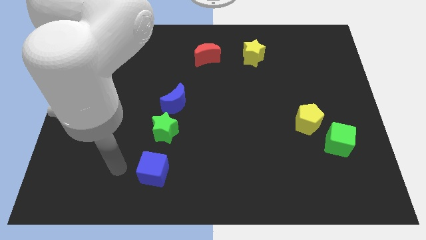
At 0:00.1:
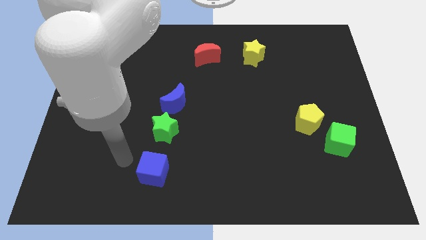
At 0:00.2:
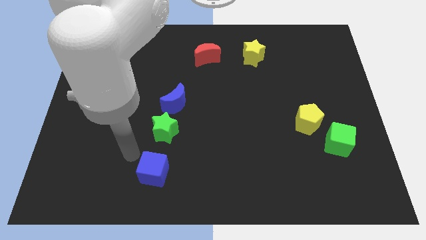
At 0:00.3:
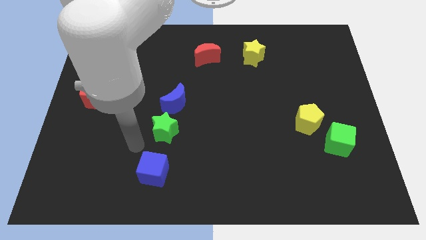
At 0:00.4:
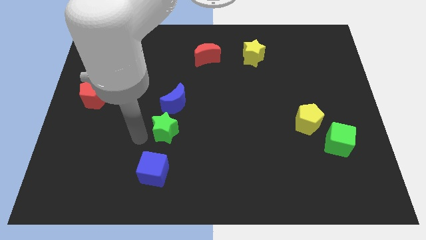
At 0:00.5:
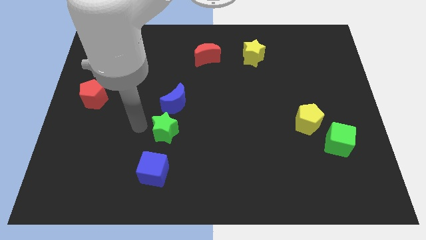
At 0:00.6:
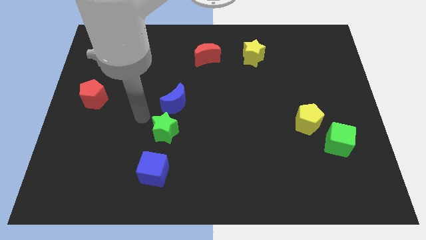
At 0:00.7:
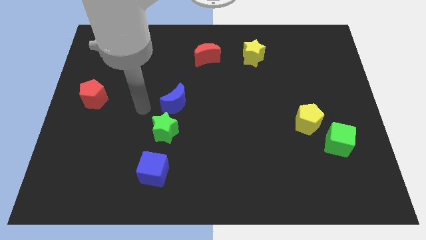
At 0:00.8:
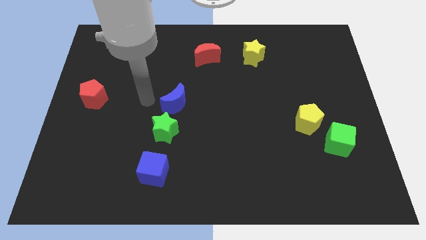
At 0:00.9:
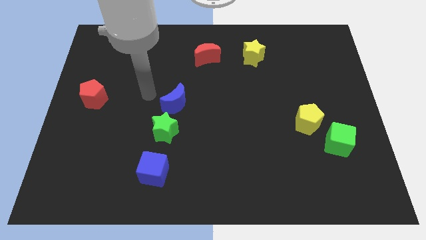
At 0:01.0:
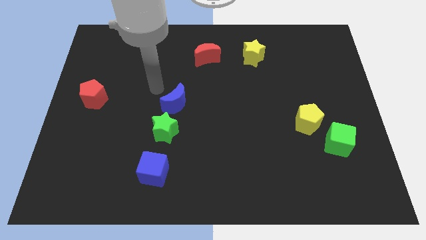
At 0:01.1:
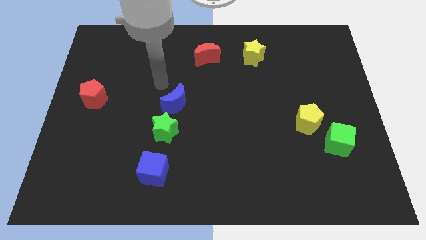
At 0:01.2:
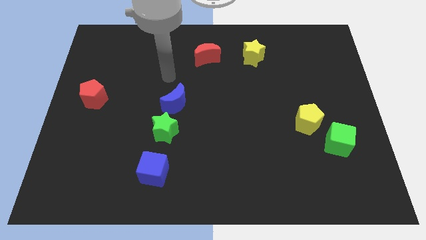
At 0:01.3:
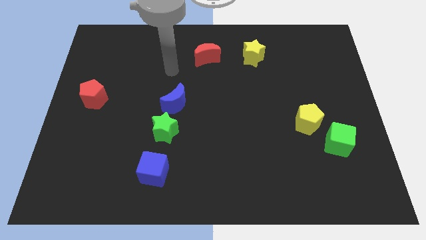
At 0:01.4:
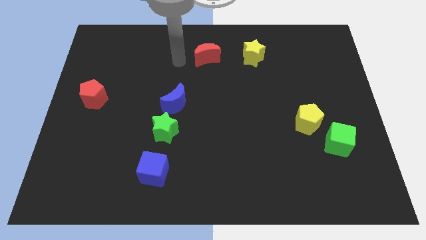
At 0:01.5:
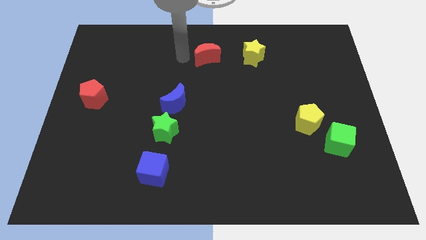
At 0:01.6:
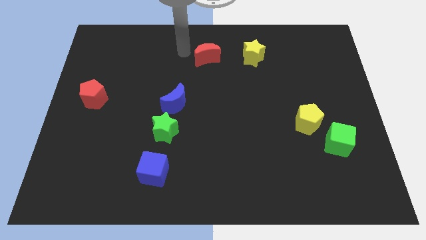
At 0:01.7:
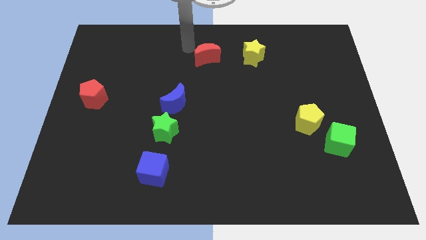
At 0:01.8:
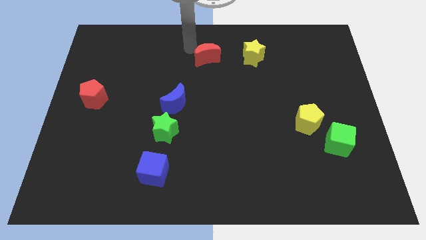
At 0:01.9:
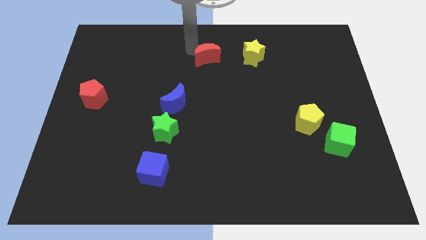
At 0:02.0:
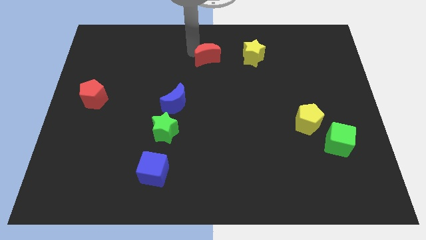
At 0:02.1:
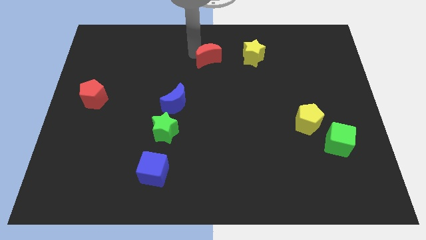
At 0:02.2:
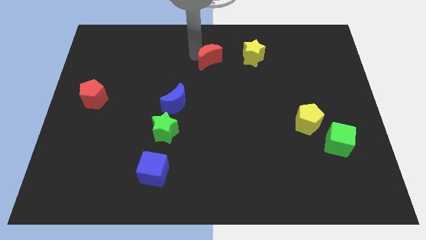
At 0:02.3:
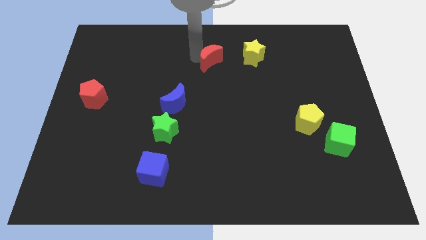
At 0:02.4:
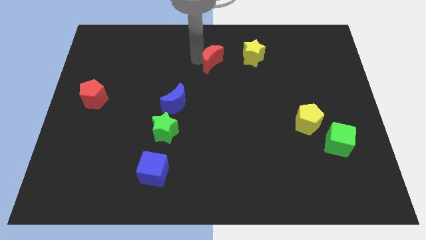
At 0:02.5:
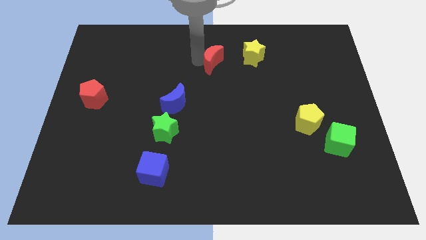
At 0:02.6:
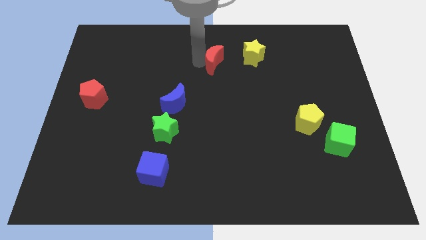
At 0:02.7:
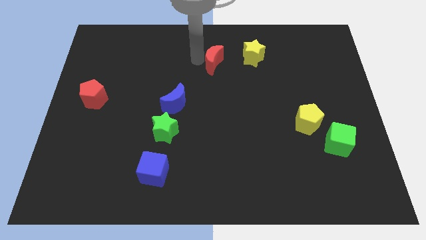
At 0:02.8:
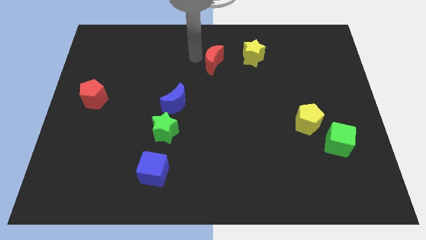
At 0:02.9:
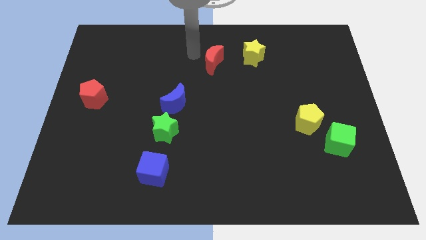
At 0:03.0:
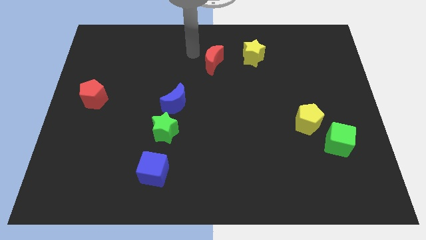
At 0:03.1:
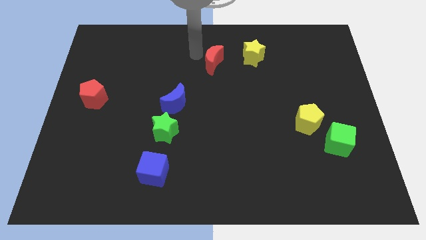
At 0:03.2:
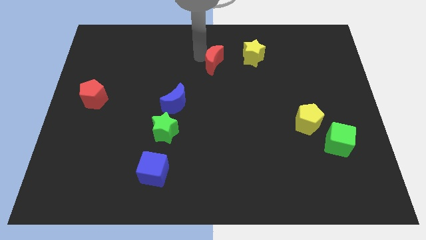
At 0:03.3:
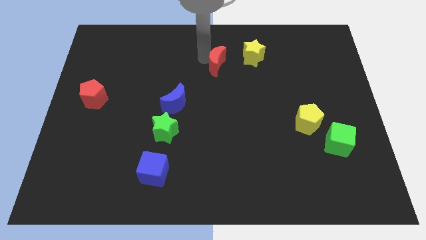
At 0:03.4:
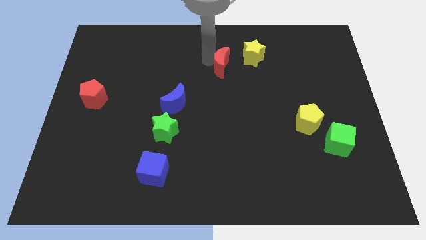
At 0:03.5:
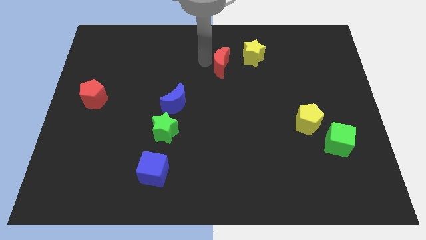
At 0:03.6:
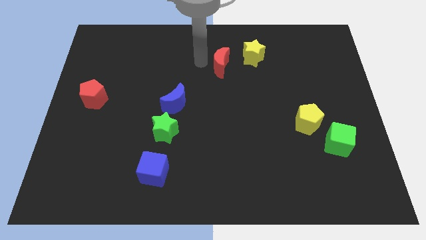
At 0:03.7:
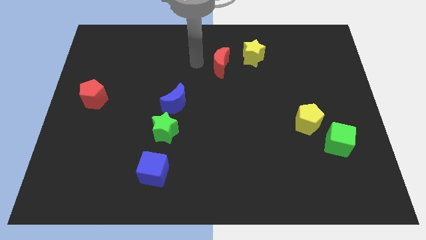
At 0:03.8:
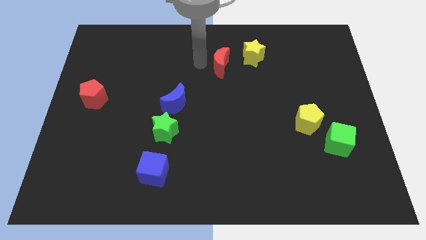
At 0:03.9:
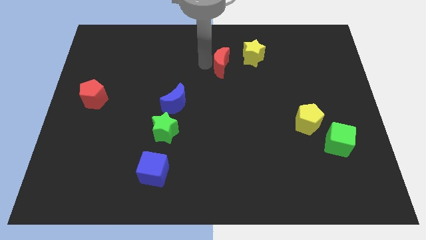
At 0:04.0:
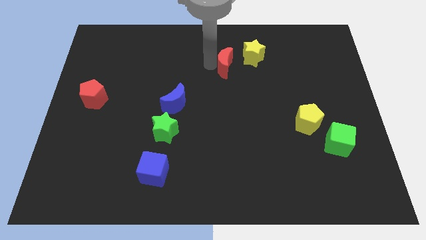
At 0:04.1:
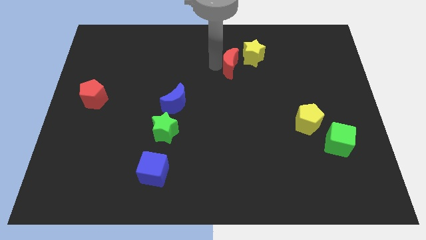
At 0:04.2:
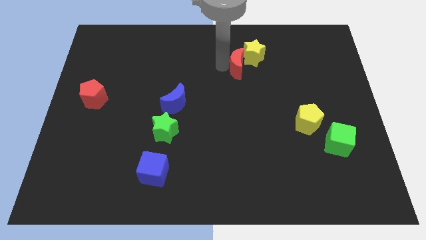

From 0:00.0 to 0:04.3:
push the red moon a little right

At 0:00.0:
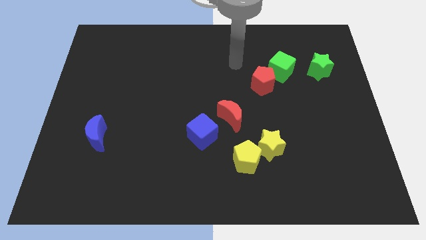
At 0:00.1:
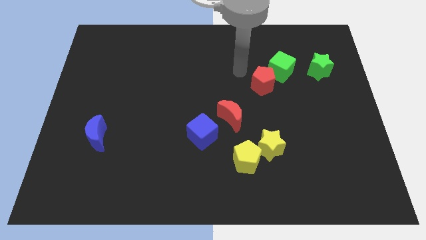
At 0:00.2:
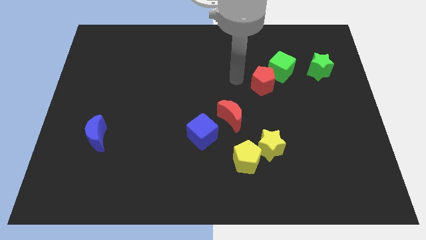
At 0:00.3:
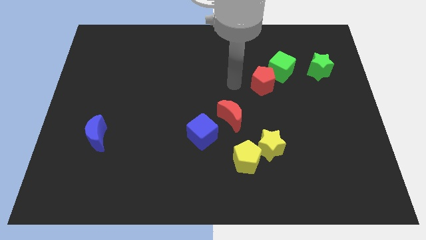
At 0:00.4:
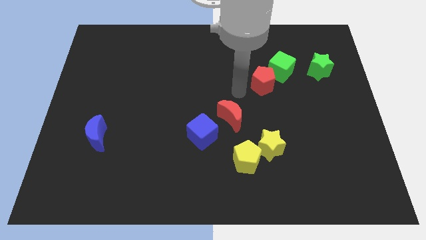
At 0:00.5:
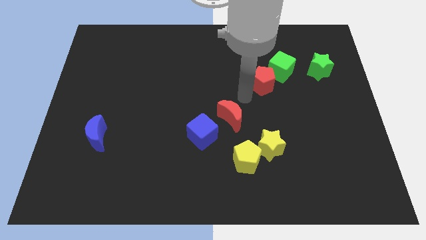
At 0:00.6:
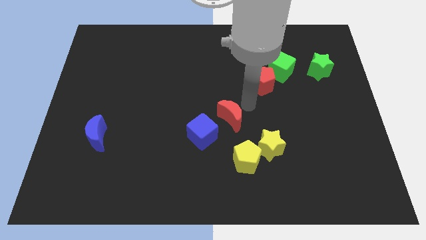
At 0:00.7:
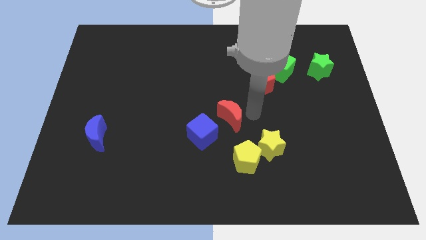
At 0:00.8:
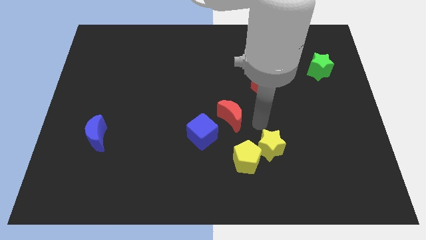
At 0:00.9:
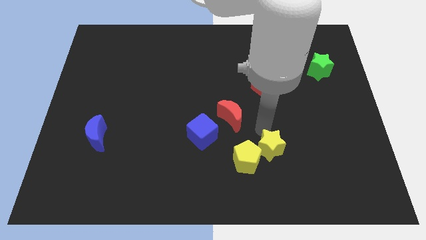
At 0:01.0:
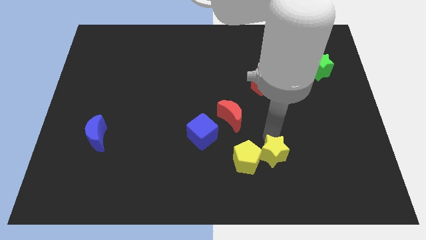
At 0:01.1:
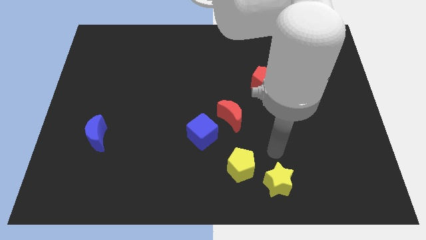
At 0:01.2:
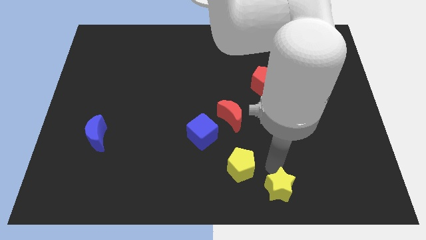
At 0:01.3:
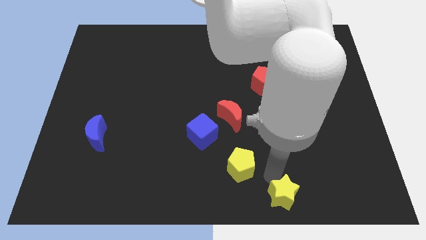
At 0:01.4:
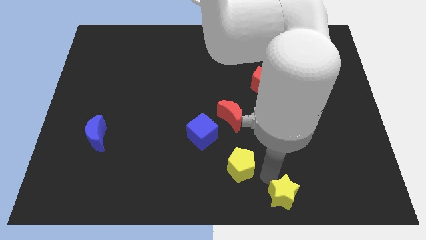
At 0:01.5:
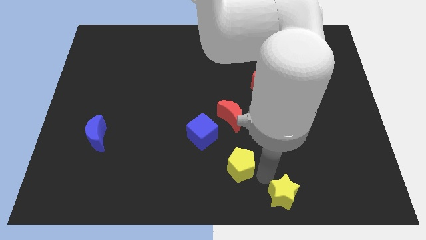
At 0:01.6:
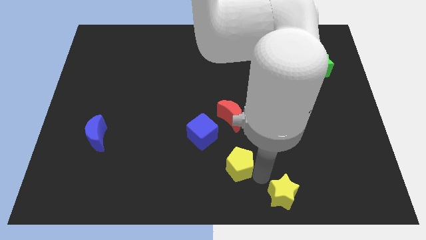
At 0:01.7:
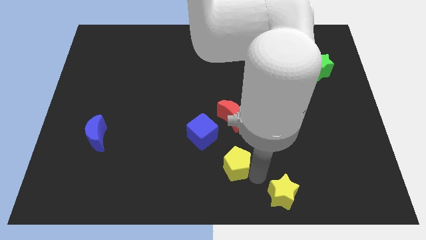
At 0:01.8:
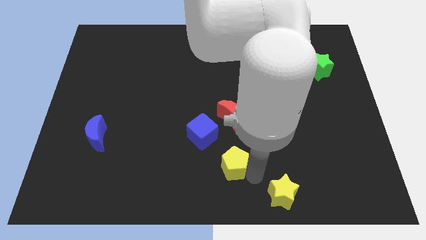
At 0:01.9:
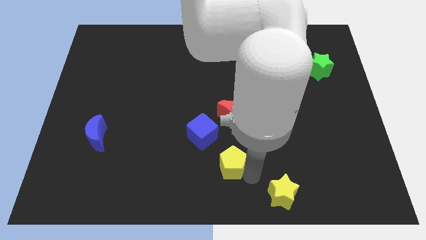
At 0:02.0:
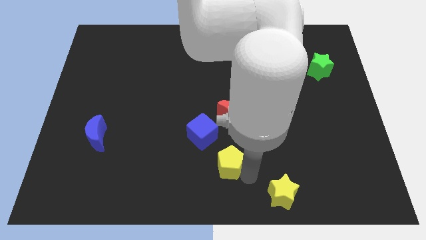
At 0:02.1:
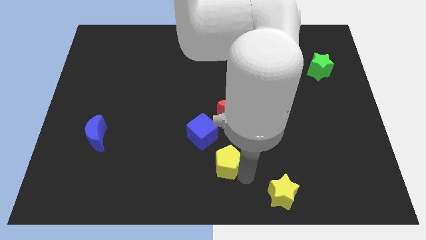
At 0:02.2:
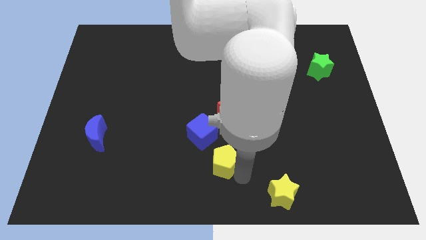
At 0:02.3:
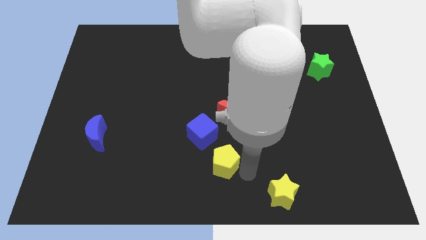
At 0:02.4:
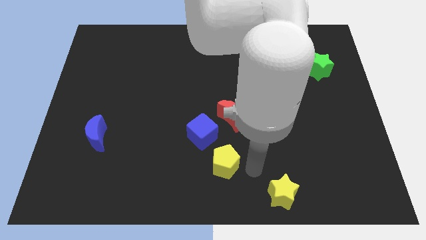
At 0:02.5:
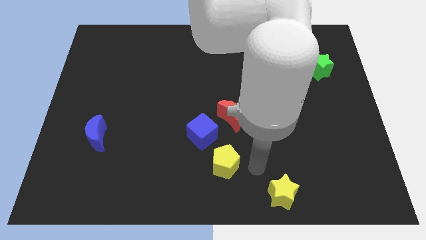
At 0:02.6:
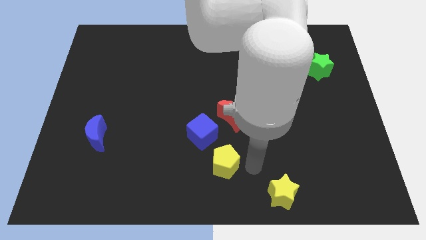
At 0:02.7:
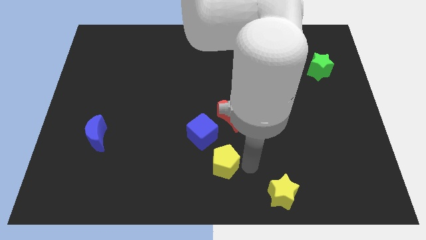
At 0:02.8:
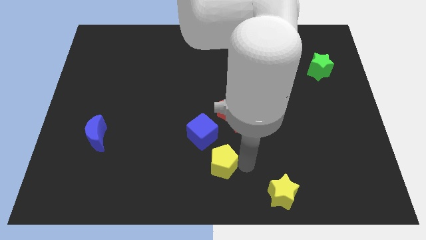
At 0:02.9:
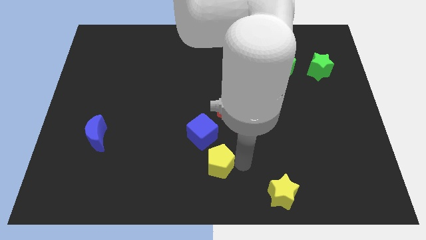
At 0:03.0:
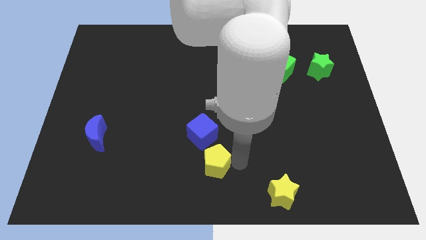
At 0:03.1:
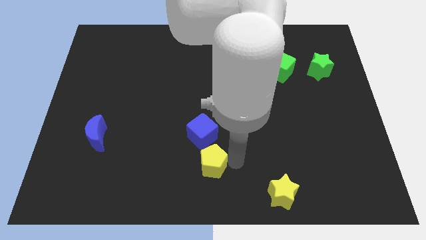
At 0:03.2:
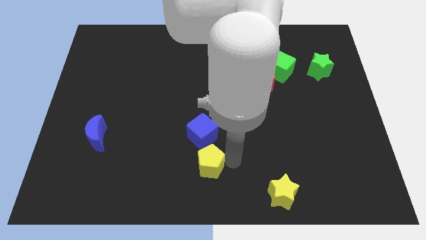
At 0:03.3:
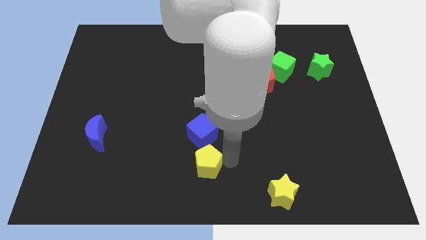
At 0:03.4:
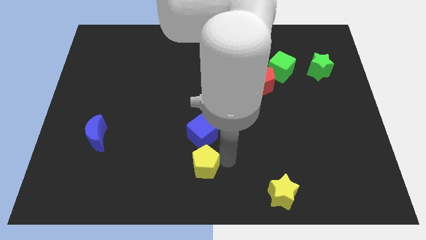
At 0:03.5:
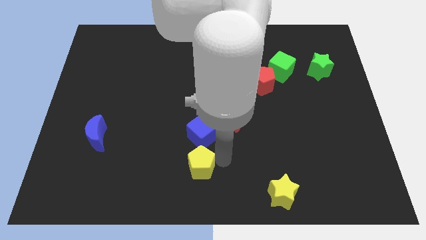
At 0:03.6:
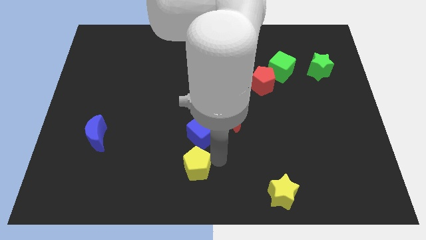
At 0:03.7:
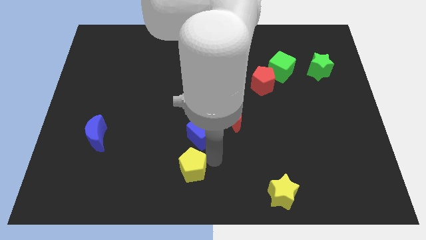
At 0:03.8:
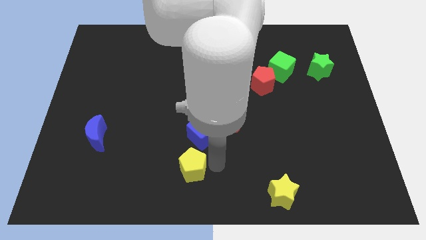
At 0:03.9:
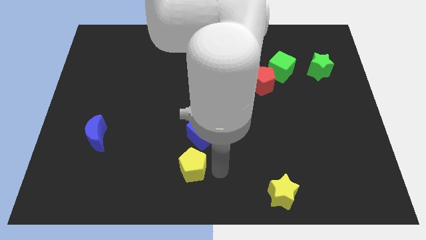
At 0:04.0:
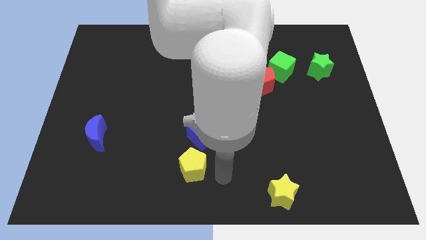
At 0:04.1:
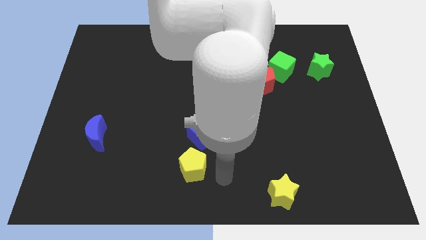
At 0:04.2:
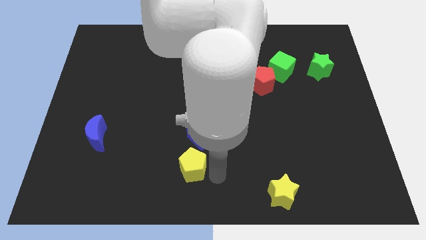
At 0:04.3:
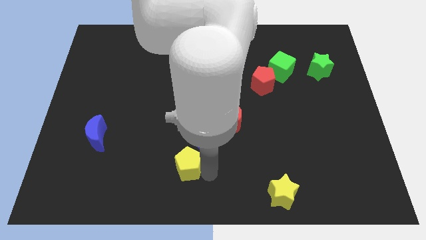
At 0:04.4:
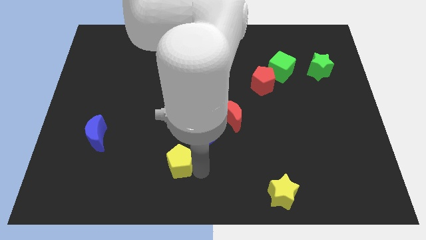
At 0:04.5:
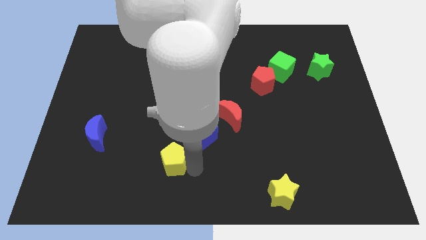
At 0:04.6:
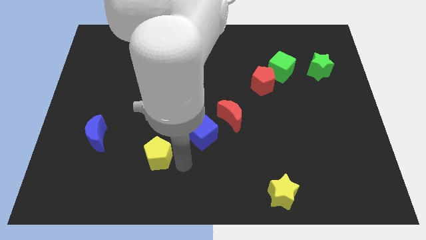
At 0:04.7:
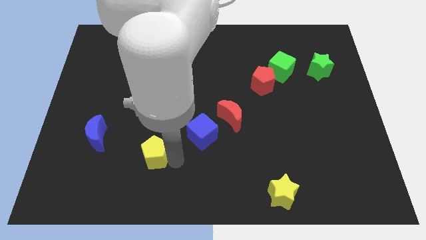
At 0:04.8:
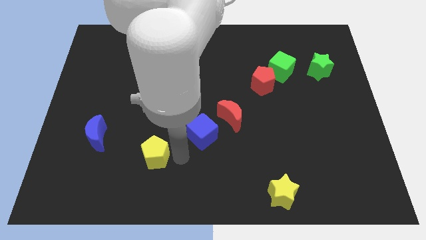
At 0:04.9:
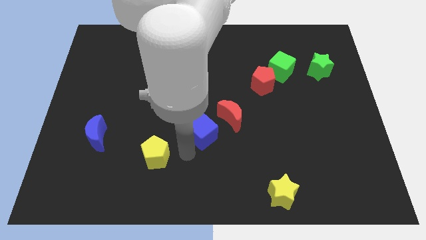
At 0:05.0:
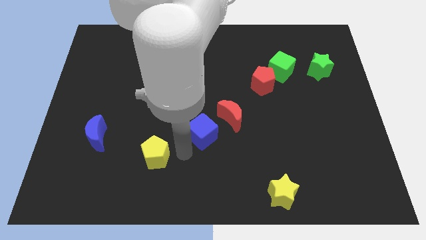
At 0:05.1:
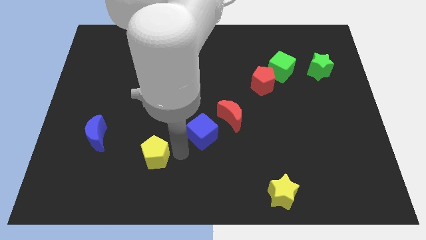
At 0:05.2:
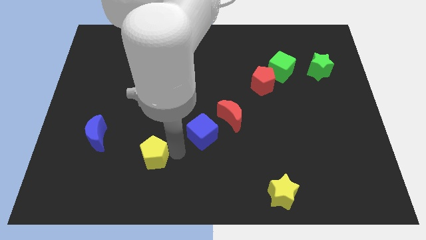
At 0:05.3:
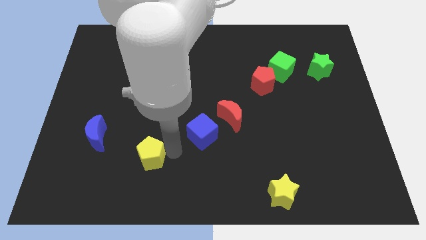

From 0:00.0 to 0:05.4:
move the yellow pentagon to the left
